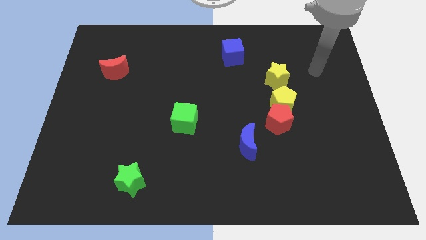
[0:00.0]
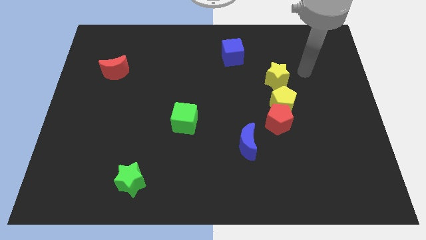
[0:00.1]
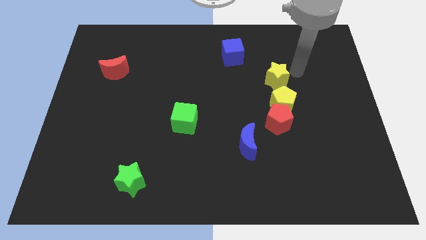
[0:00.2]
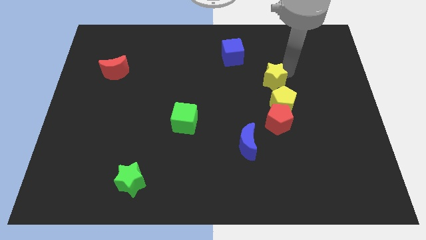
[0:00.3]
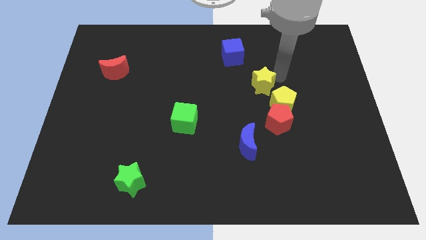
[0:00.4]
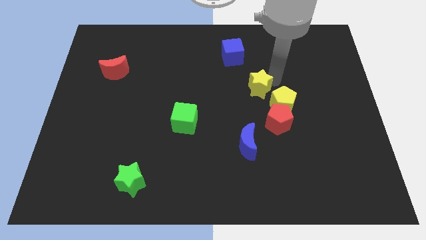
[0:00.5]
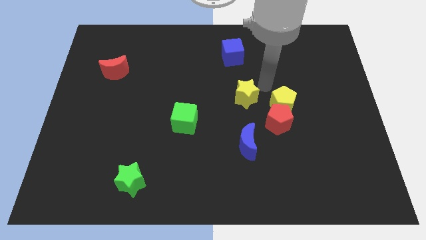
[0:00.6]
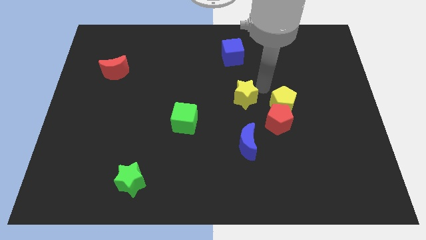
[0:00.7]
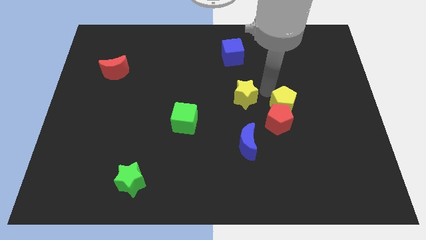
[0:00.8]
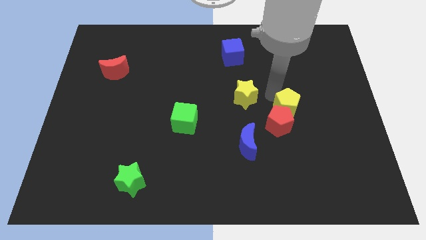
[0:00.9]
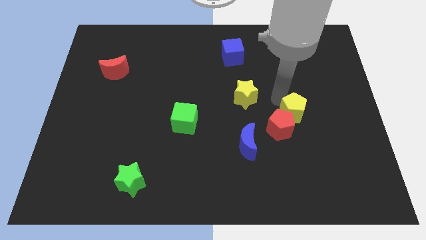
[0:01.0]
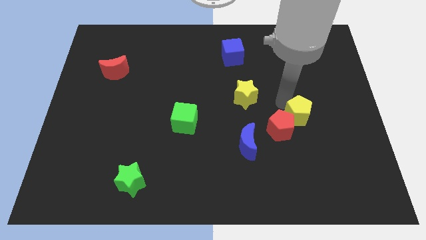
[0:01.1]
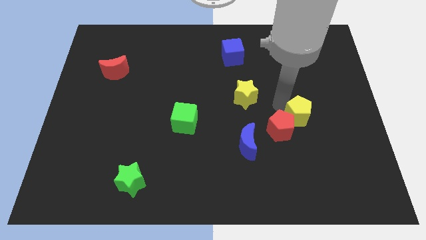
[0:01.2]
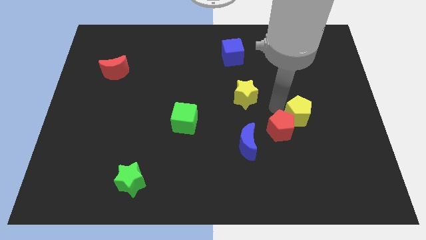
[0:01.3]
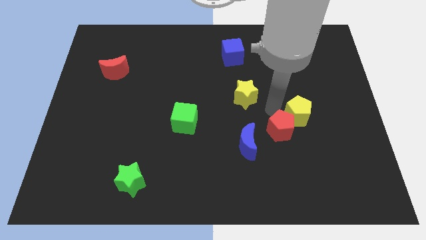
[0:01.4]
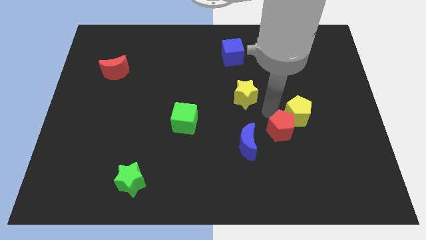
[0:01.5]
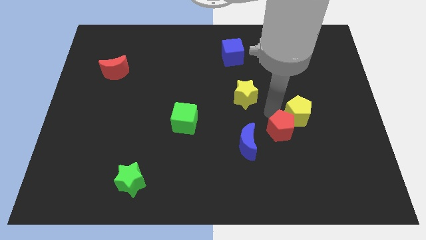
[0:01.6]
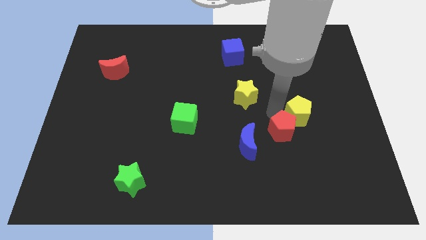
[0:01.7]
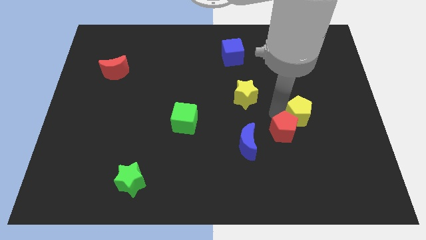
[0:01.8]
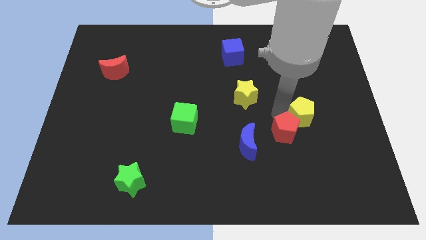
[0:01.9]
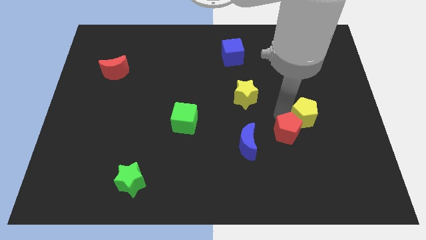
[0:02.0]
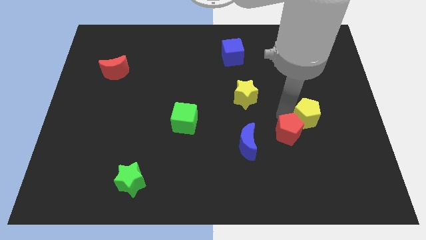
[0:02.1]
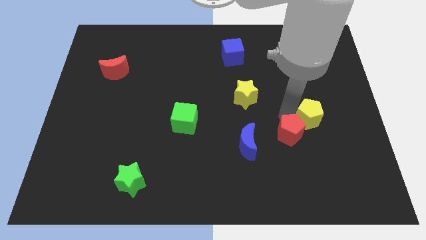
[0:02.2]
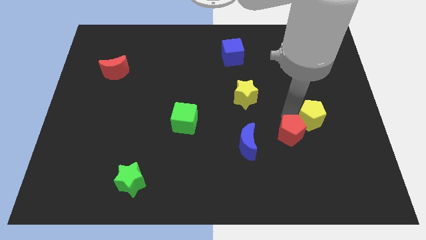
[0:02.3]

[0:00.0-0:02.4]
separate the yellow pentagon from the red pentagon and yellow star

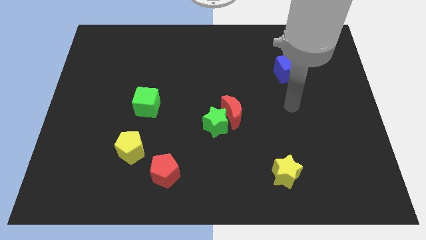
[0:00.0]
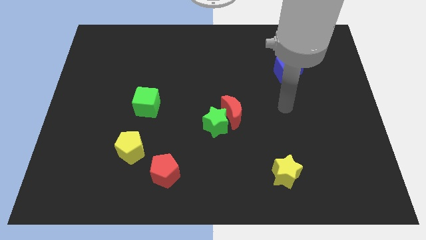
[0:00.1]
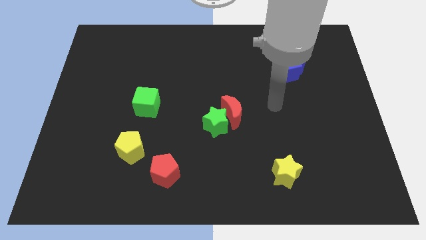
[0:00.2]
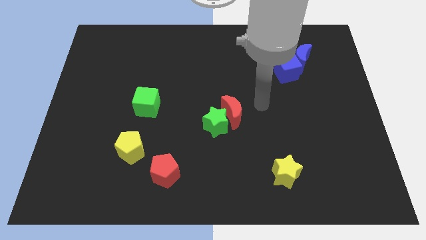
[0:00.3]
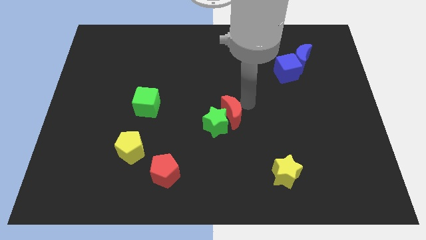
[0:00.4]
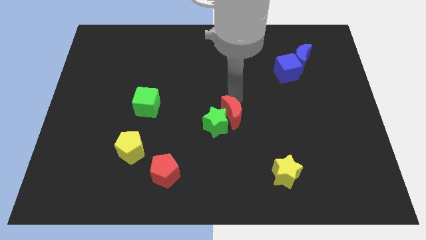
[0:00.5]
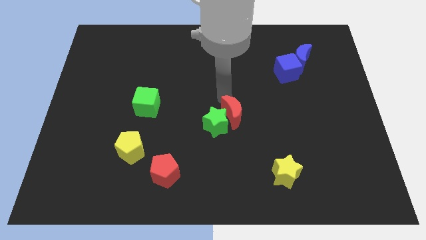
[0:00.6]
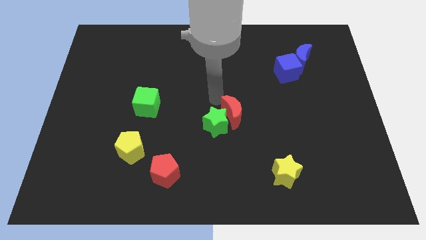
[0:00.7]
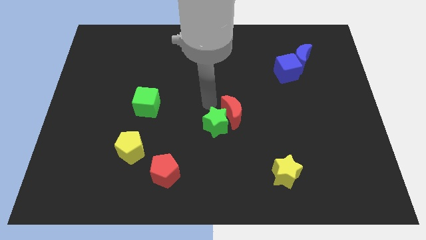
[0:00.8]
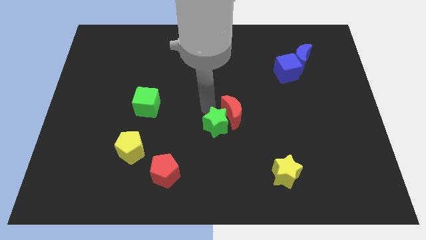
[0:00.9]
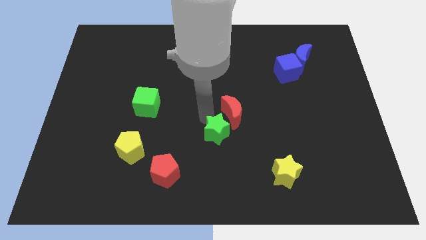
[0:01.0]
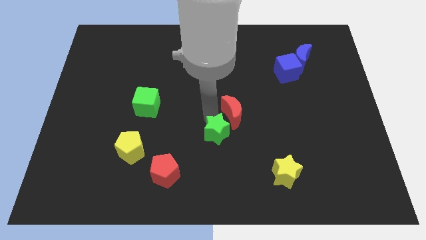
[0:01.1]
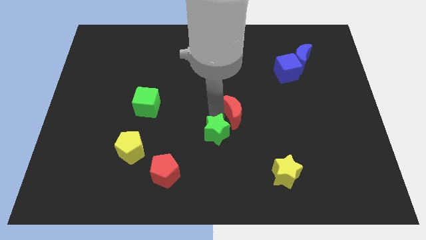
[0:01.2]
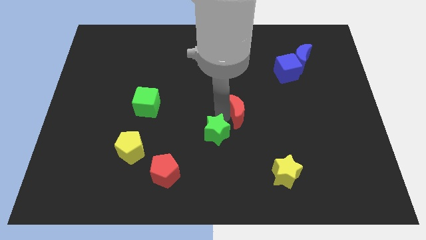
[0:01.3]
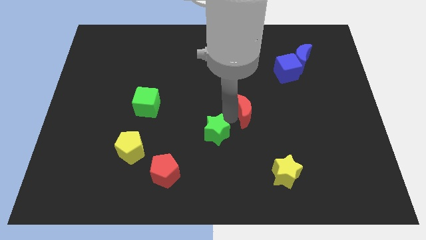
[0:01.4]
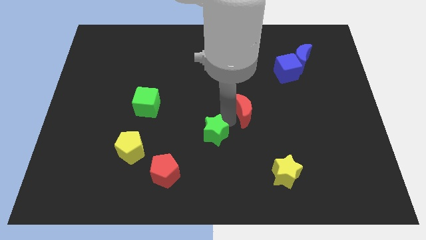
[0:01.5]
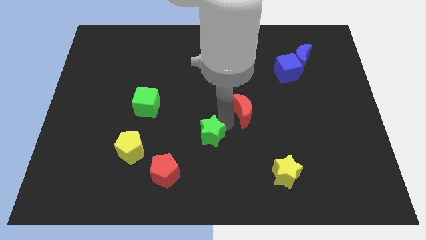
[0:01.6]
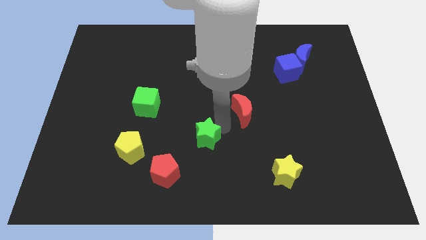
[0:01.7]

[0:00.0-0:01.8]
separate the red moon from the green star

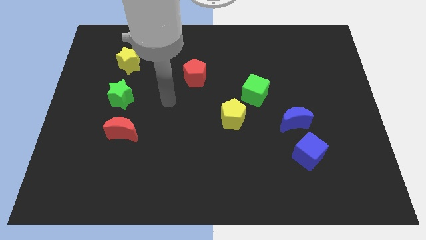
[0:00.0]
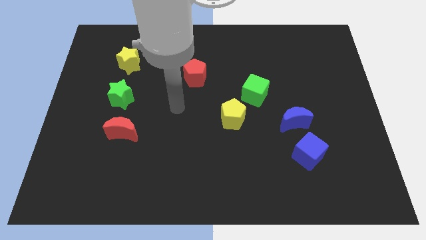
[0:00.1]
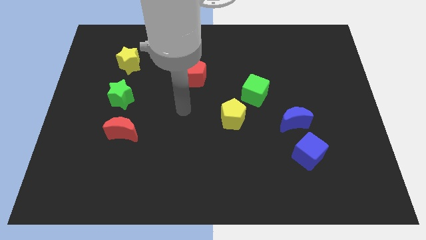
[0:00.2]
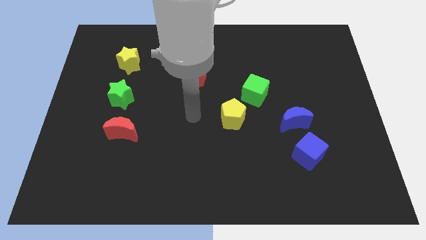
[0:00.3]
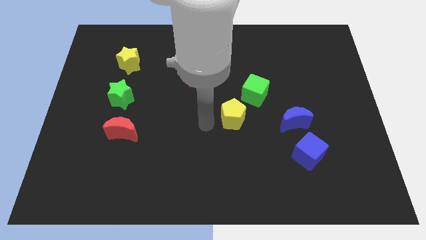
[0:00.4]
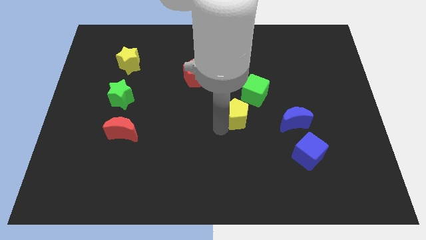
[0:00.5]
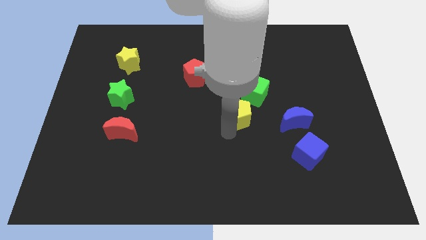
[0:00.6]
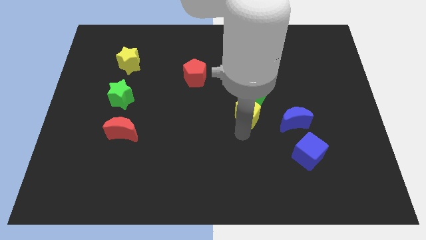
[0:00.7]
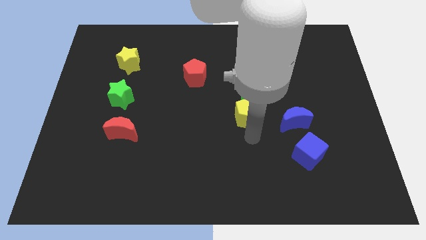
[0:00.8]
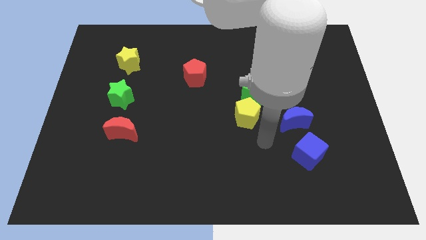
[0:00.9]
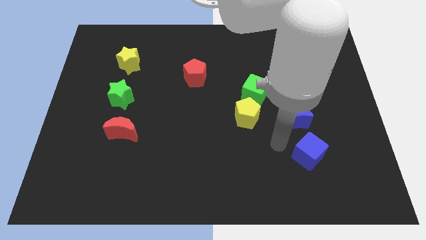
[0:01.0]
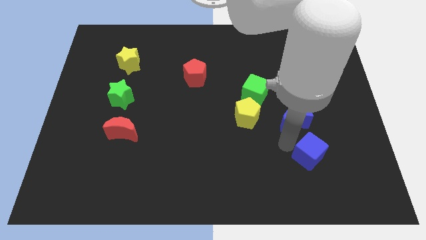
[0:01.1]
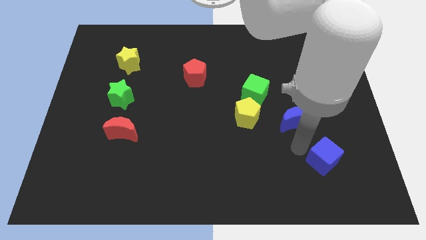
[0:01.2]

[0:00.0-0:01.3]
move the blue moon away from the blue cube

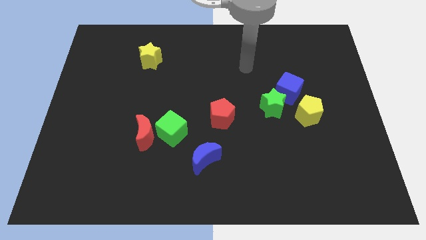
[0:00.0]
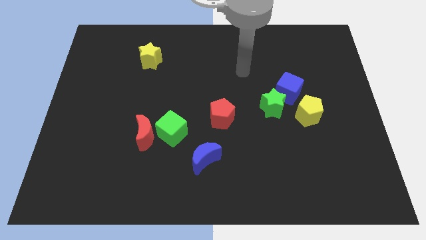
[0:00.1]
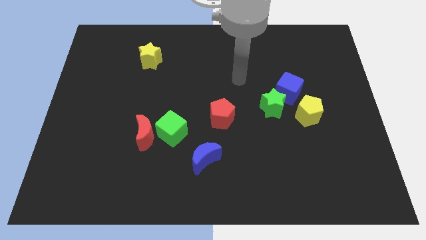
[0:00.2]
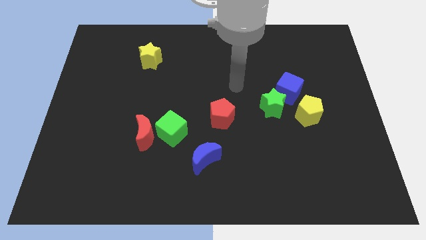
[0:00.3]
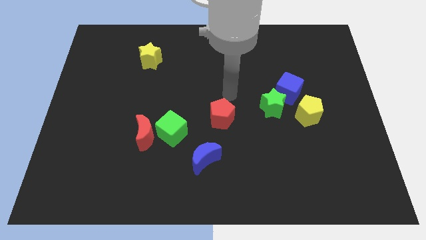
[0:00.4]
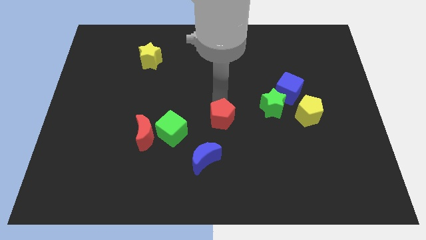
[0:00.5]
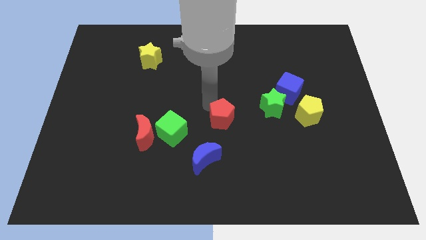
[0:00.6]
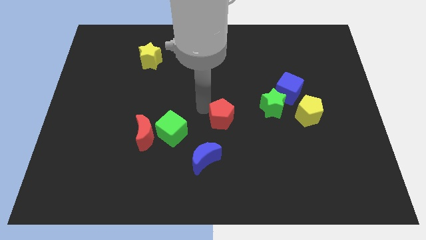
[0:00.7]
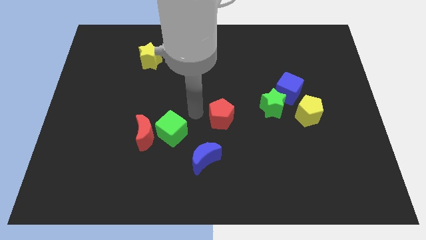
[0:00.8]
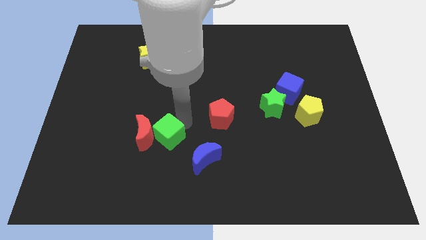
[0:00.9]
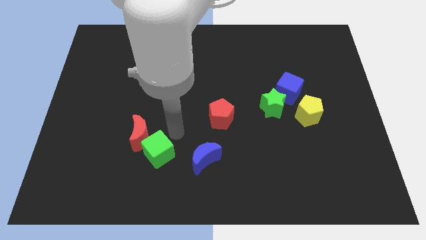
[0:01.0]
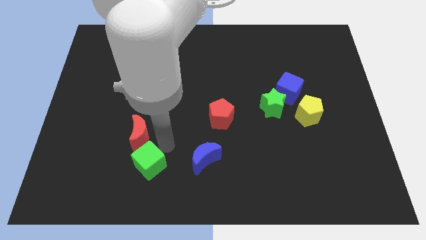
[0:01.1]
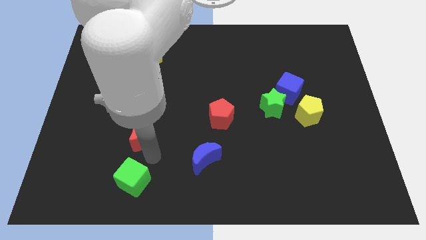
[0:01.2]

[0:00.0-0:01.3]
separate the red moon from the green cube

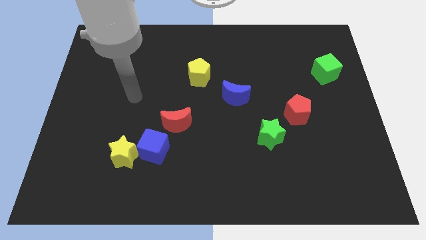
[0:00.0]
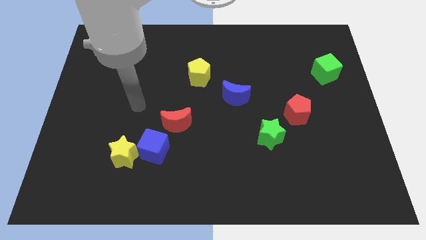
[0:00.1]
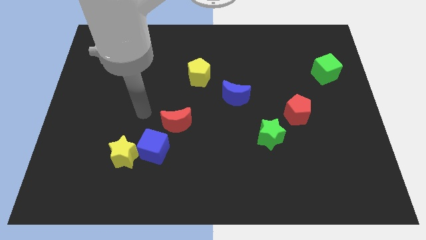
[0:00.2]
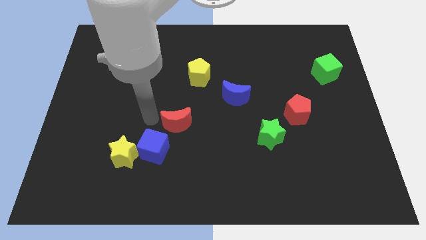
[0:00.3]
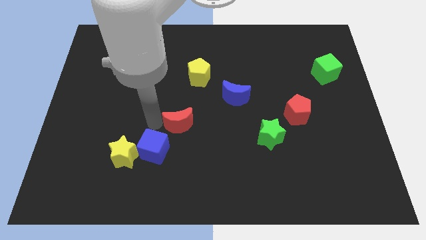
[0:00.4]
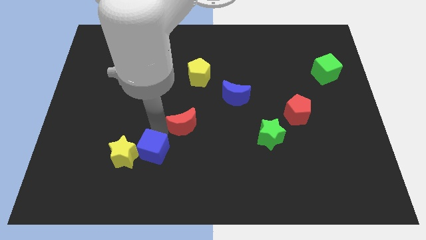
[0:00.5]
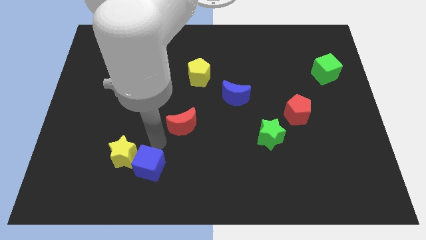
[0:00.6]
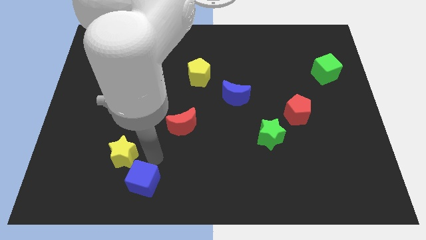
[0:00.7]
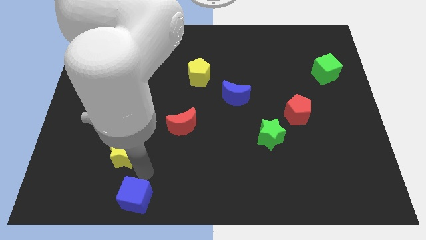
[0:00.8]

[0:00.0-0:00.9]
pull the yellow star apart from the blue cube

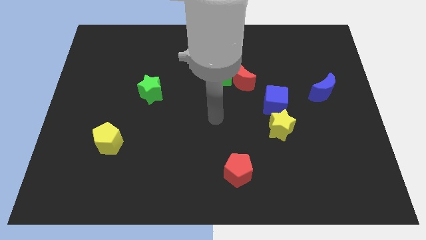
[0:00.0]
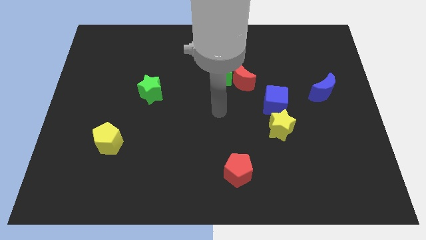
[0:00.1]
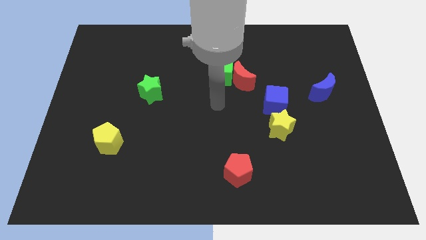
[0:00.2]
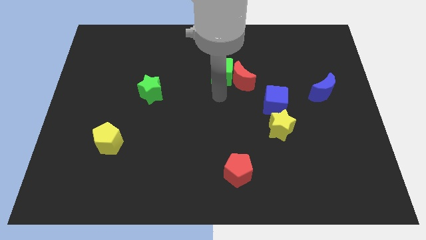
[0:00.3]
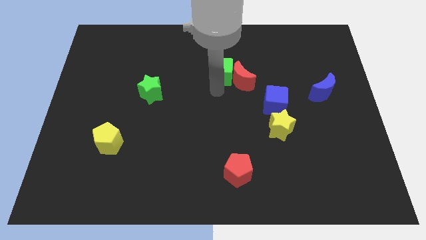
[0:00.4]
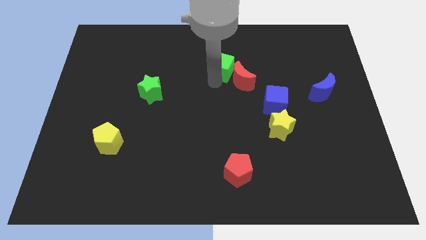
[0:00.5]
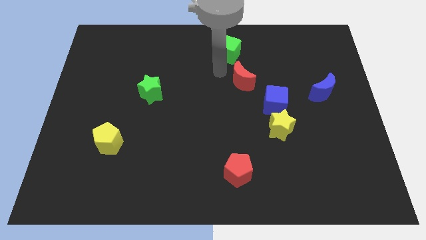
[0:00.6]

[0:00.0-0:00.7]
move the red moon away from the green cube

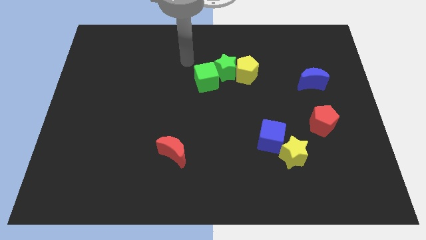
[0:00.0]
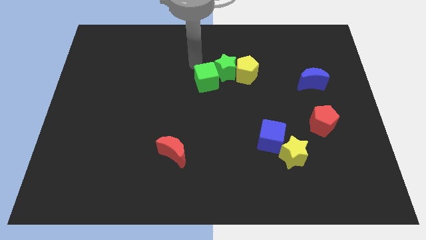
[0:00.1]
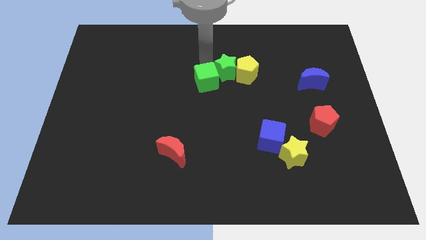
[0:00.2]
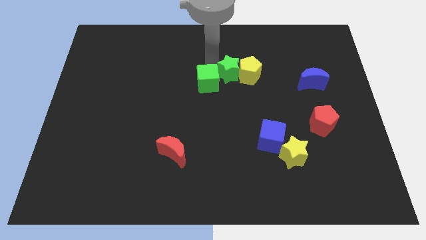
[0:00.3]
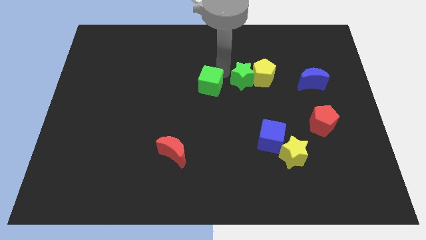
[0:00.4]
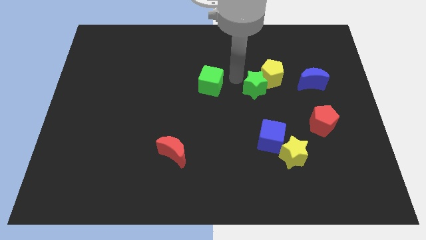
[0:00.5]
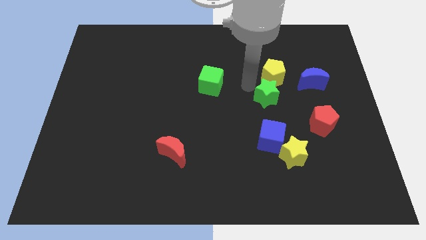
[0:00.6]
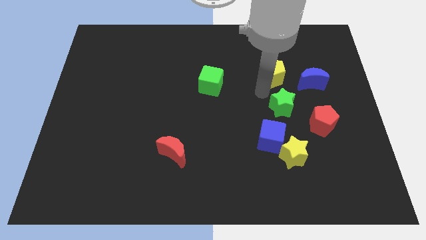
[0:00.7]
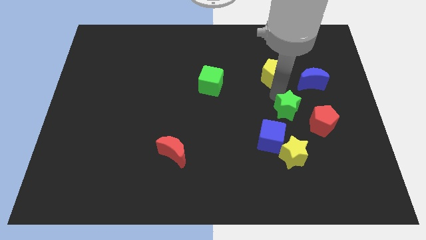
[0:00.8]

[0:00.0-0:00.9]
separate the yellow pentagon from the green star

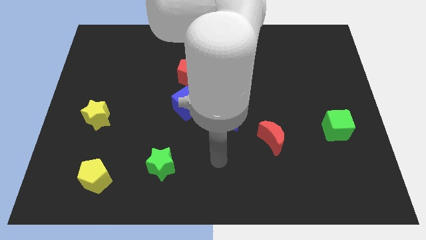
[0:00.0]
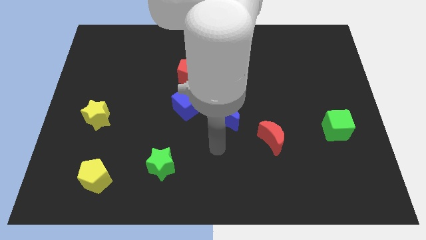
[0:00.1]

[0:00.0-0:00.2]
separate the blue moon from the blue cube

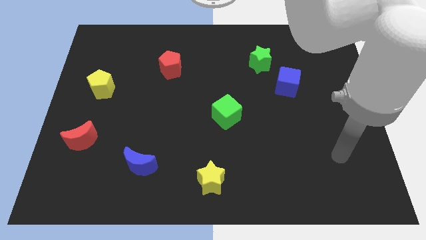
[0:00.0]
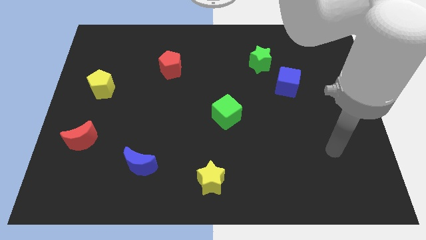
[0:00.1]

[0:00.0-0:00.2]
move the blue cube away from the green star
